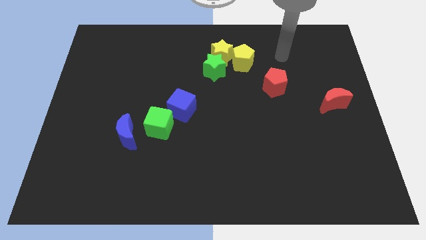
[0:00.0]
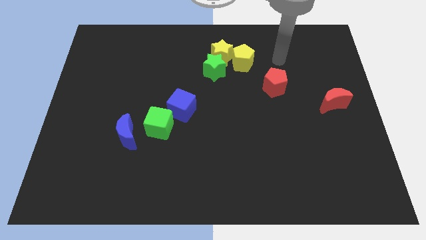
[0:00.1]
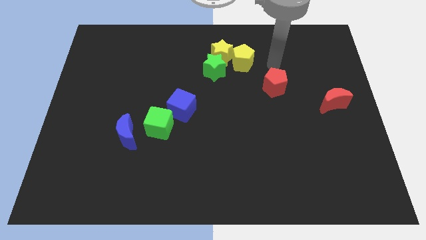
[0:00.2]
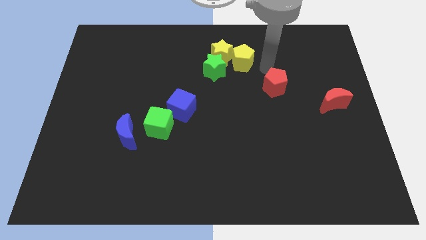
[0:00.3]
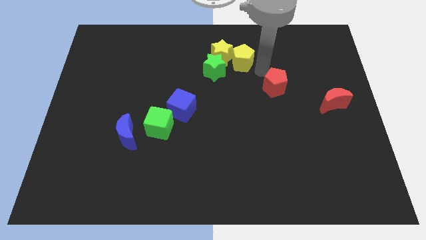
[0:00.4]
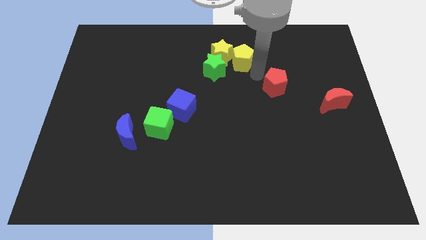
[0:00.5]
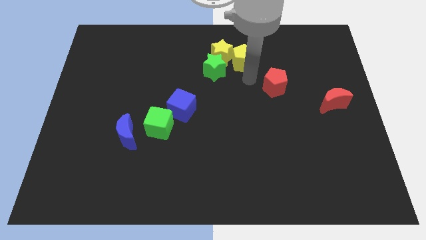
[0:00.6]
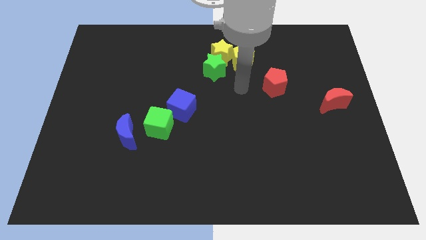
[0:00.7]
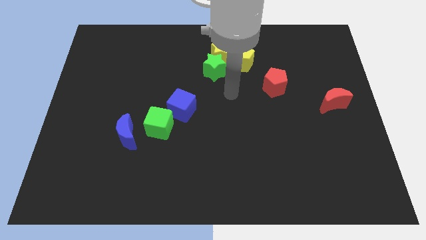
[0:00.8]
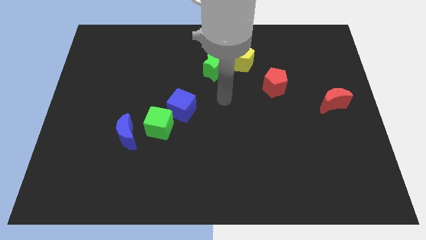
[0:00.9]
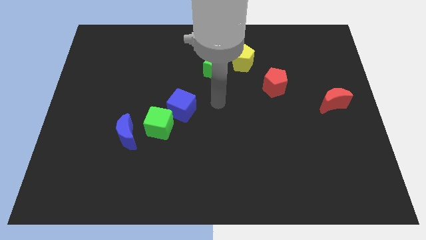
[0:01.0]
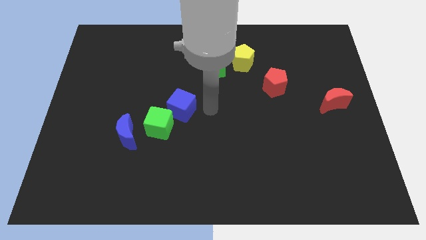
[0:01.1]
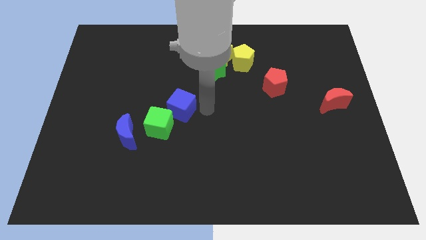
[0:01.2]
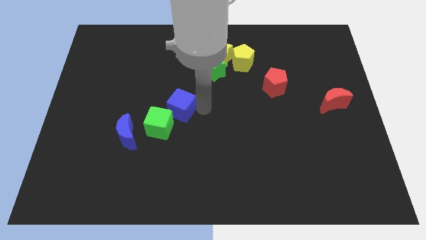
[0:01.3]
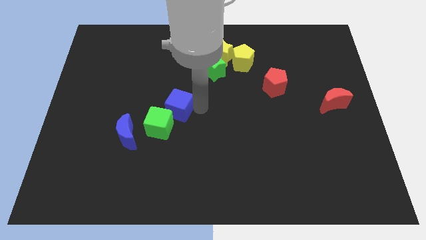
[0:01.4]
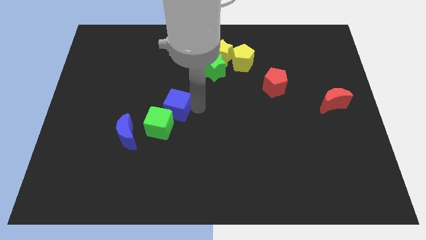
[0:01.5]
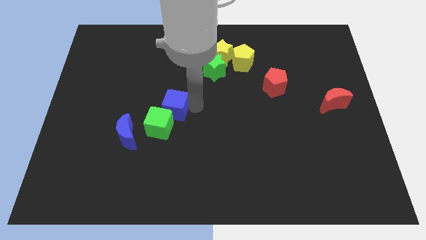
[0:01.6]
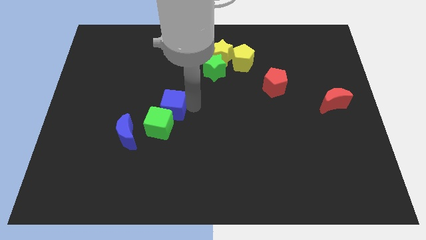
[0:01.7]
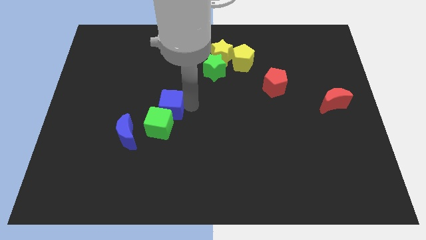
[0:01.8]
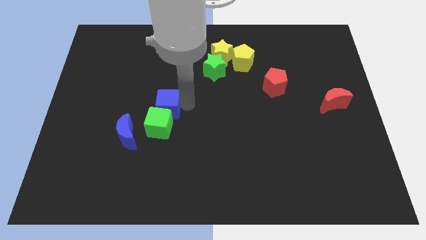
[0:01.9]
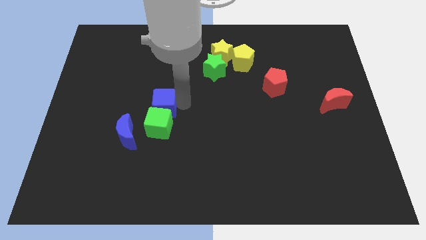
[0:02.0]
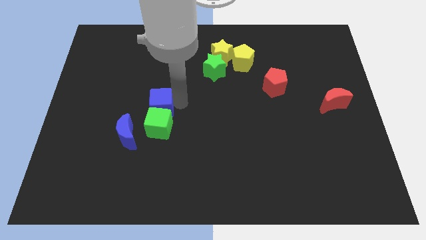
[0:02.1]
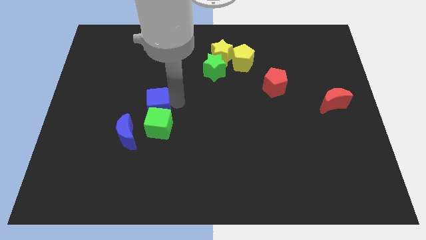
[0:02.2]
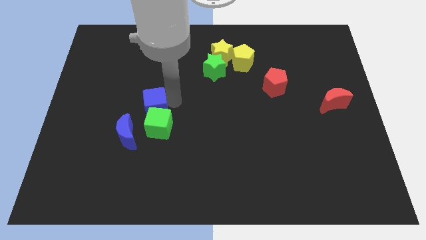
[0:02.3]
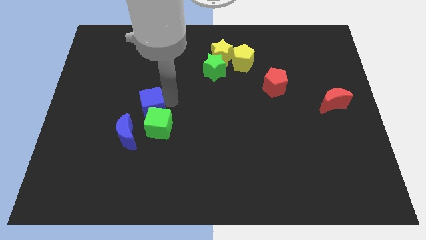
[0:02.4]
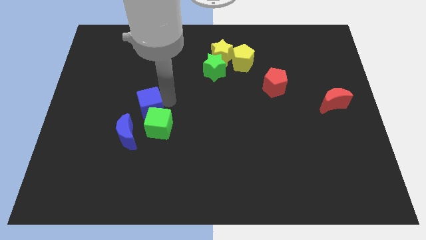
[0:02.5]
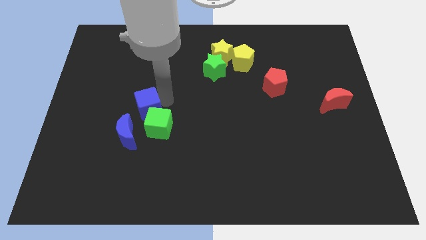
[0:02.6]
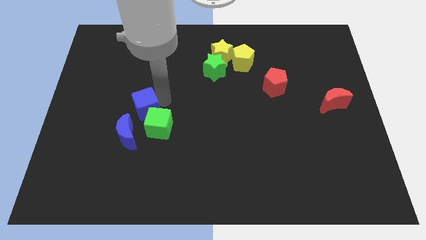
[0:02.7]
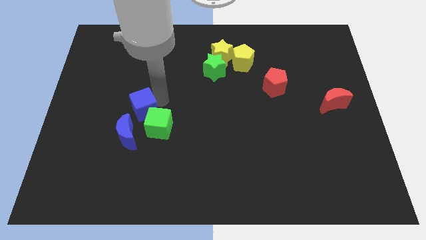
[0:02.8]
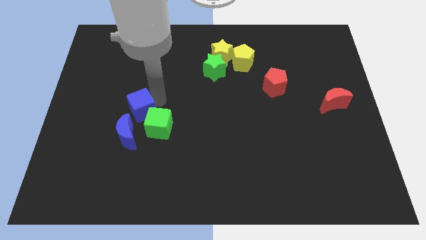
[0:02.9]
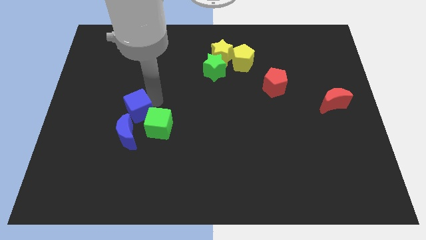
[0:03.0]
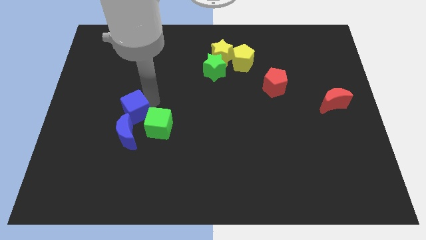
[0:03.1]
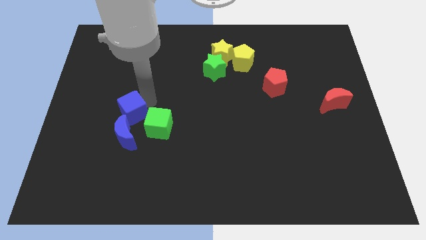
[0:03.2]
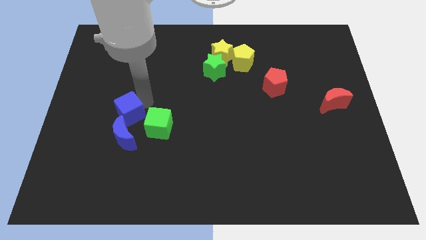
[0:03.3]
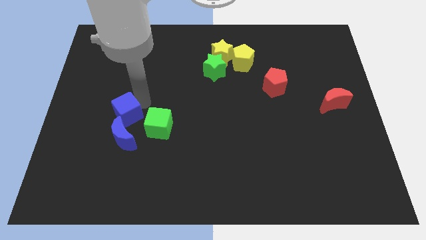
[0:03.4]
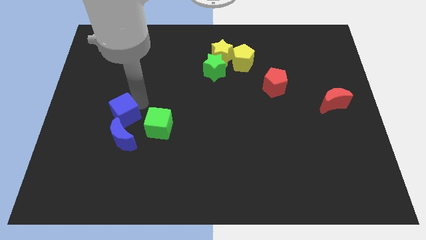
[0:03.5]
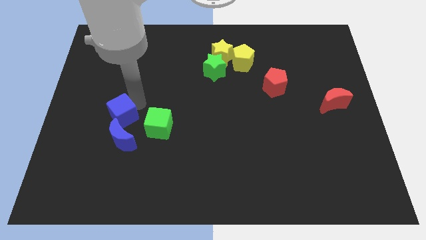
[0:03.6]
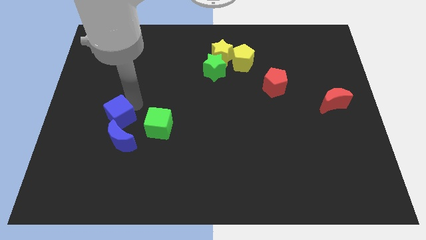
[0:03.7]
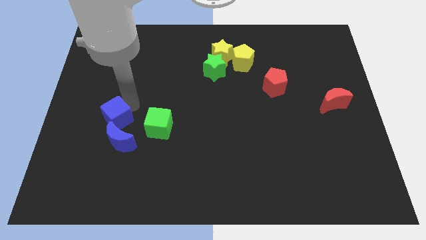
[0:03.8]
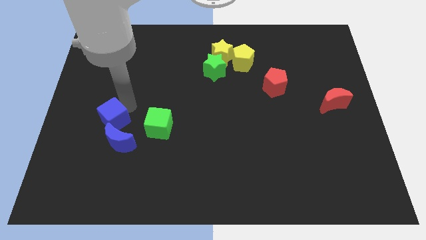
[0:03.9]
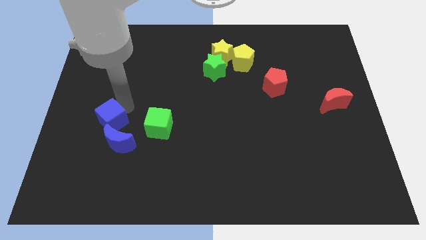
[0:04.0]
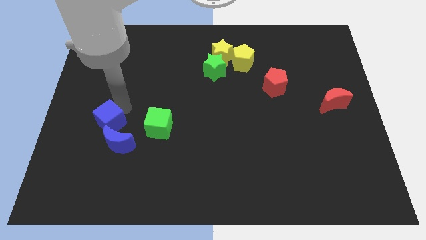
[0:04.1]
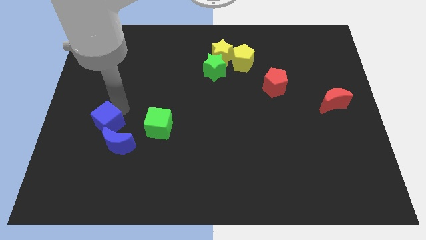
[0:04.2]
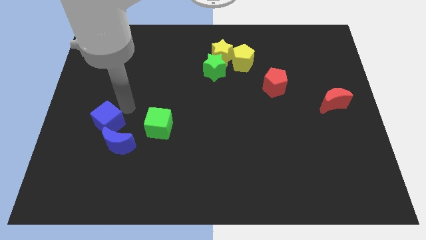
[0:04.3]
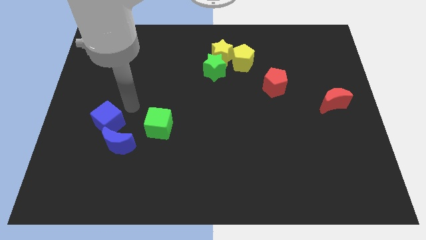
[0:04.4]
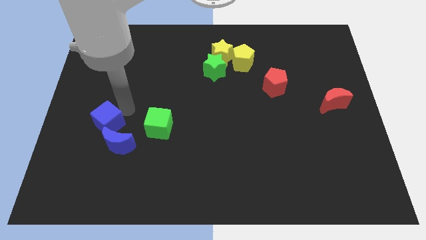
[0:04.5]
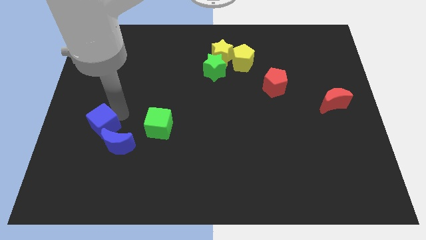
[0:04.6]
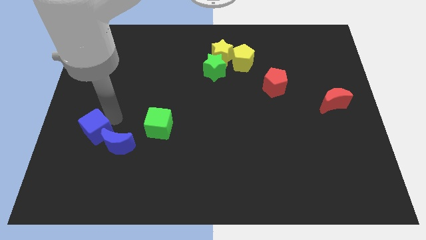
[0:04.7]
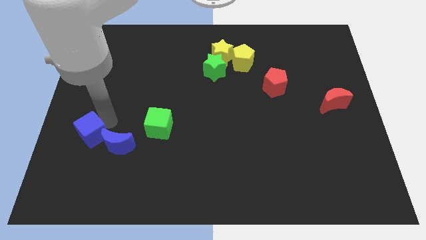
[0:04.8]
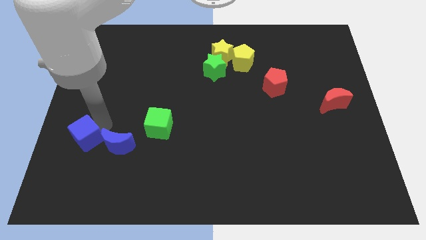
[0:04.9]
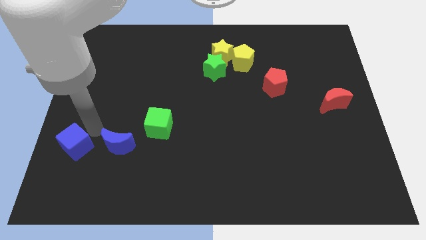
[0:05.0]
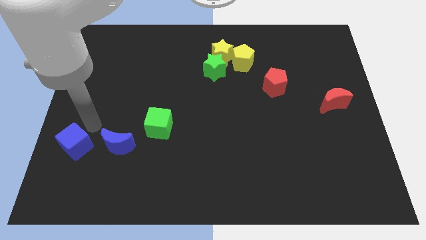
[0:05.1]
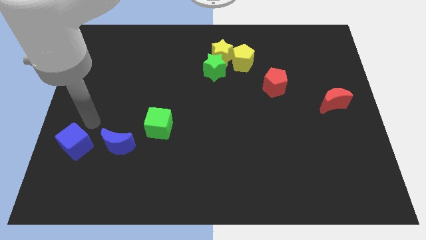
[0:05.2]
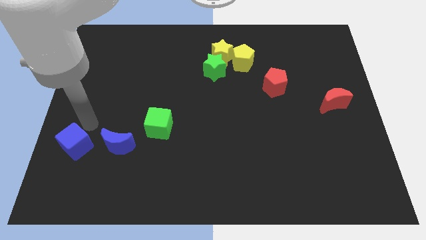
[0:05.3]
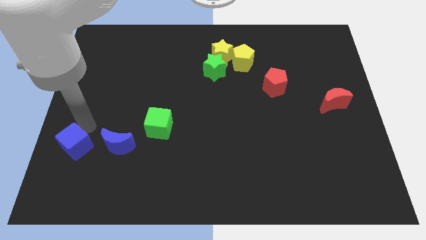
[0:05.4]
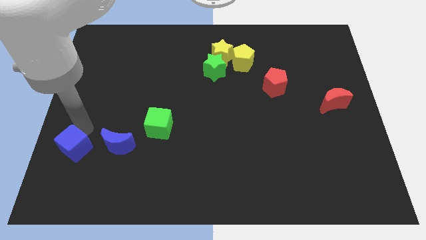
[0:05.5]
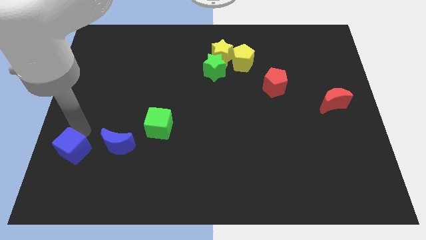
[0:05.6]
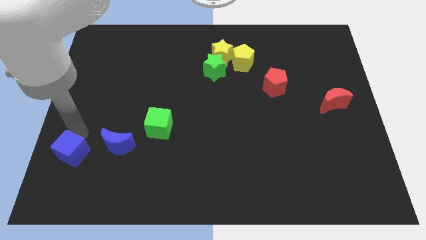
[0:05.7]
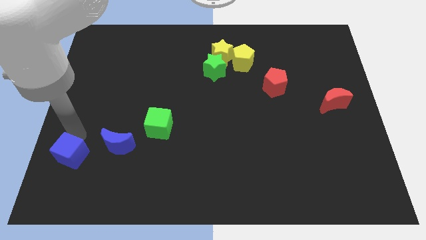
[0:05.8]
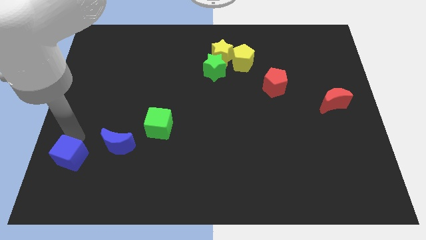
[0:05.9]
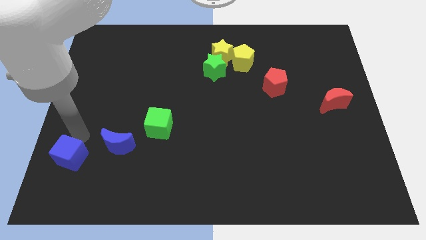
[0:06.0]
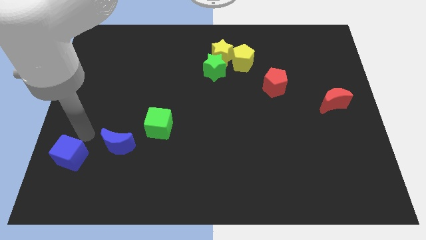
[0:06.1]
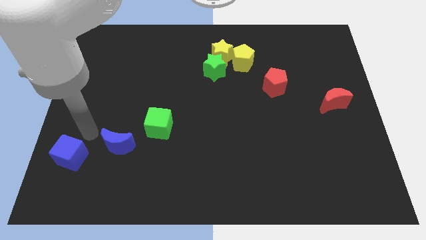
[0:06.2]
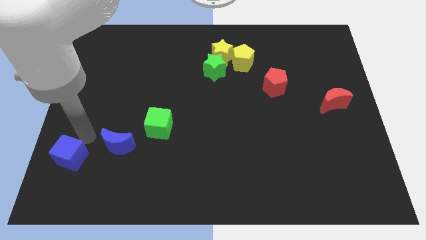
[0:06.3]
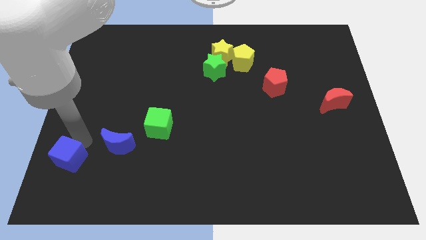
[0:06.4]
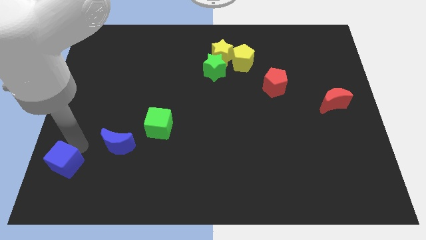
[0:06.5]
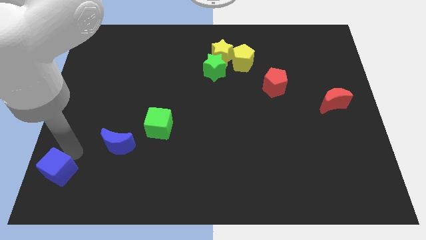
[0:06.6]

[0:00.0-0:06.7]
put the blue cube to the bottom left corner

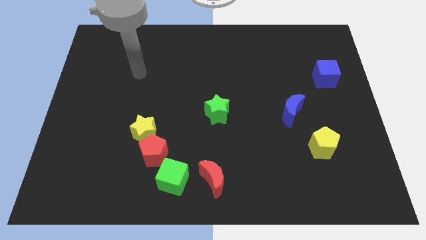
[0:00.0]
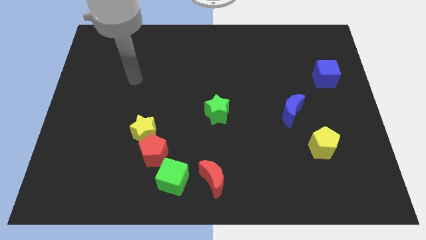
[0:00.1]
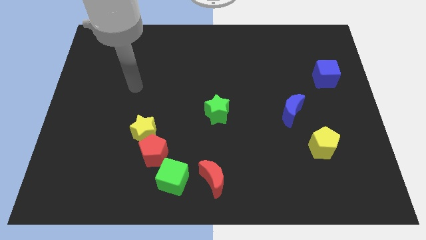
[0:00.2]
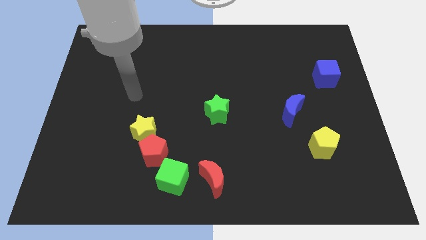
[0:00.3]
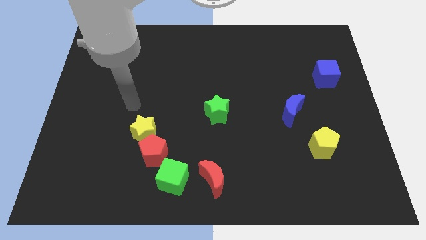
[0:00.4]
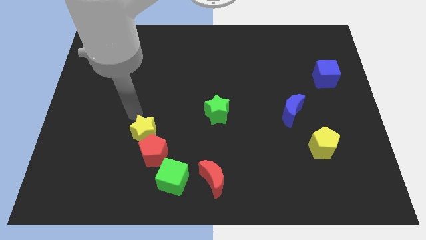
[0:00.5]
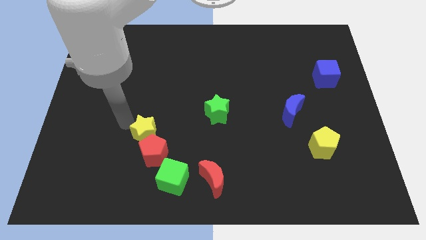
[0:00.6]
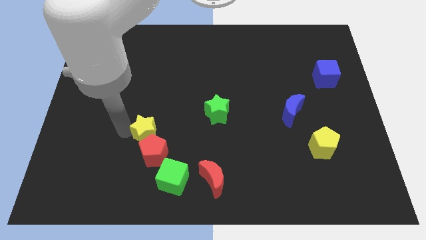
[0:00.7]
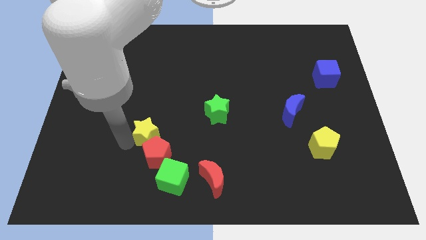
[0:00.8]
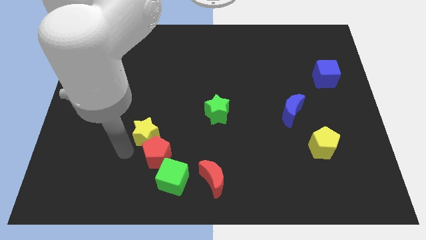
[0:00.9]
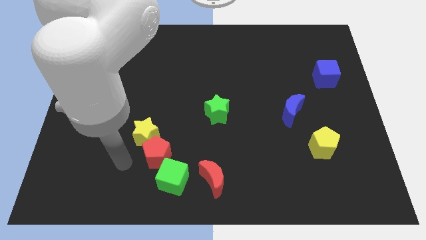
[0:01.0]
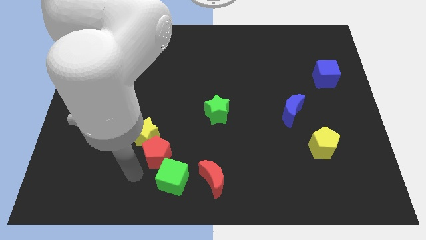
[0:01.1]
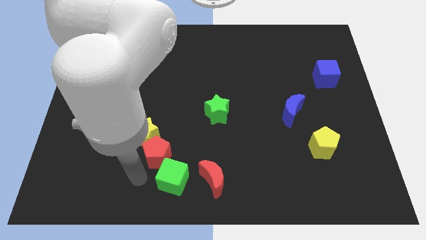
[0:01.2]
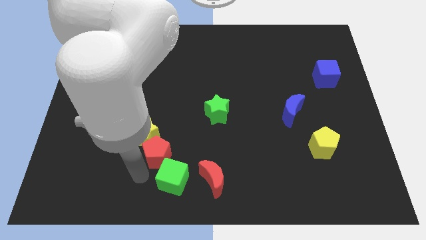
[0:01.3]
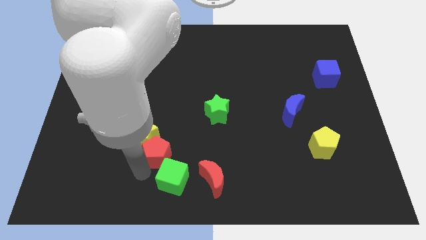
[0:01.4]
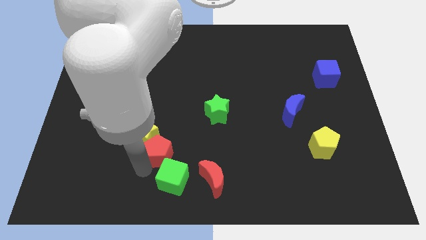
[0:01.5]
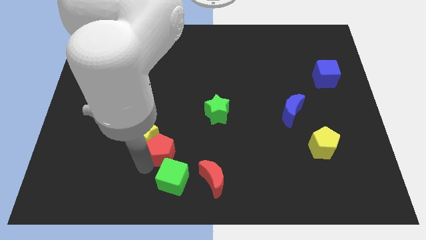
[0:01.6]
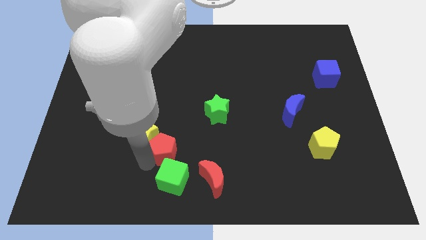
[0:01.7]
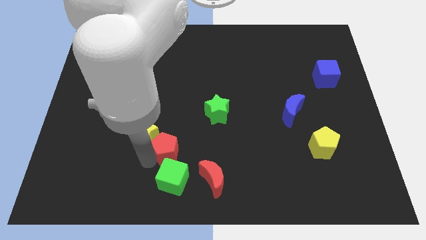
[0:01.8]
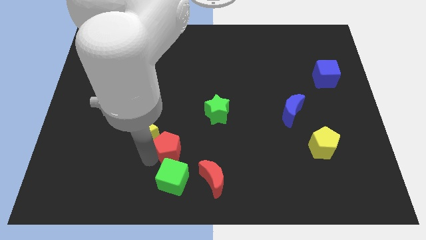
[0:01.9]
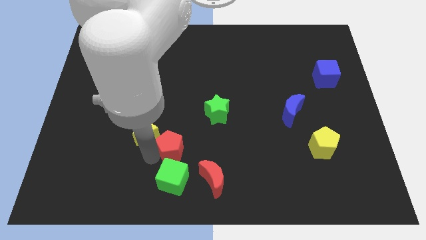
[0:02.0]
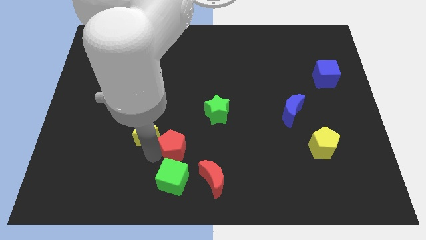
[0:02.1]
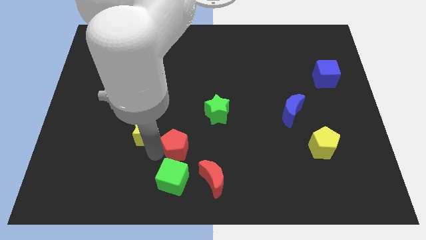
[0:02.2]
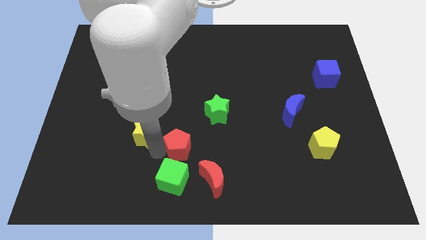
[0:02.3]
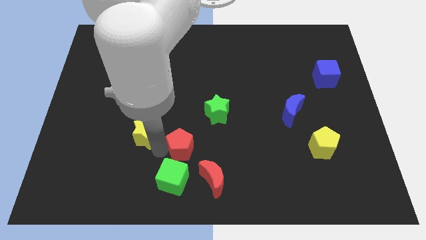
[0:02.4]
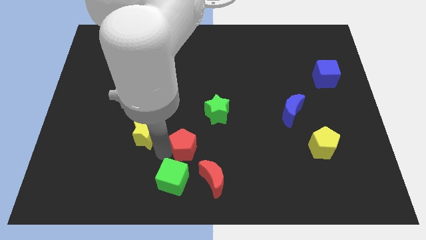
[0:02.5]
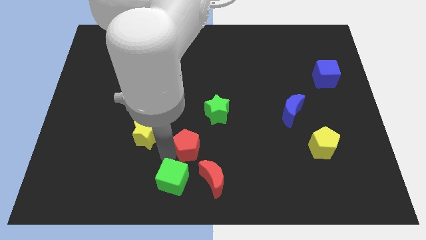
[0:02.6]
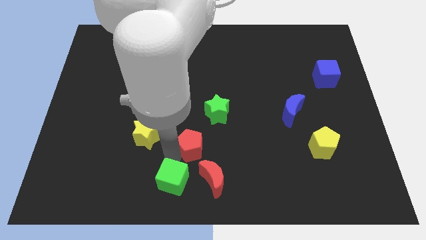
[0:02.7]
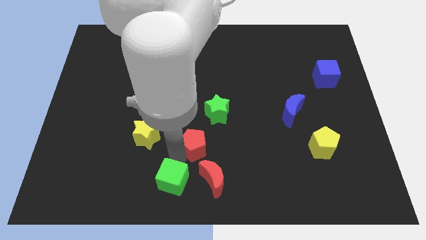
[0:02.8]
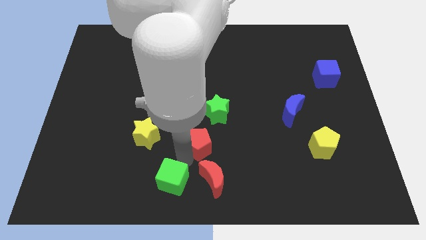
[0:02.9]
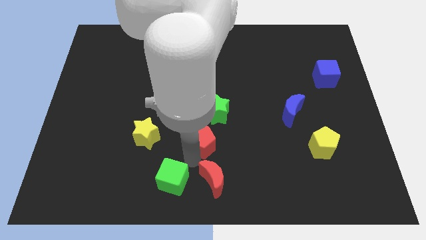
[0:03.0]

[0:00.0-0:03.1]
slide the red pentagon to the center of the board
